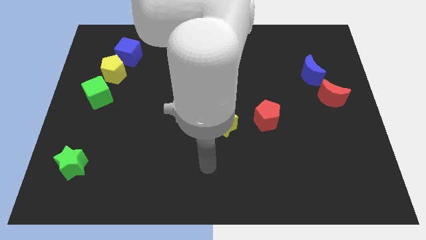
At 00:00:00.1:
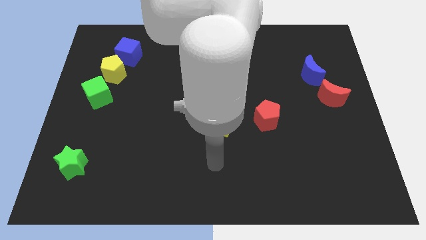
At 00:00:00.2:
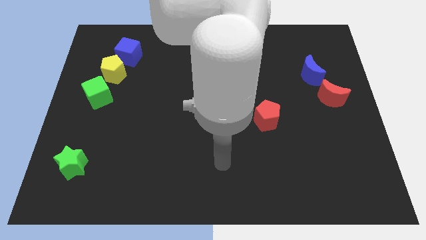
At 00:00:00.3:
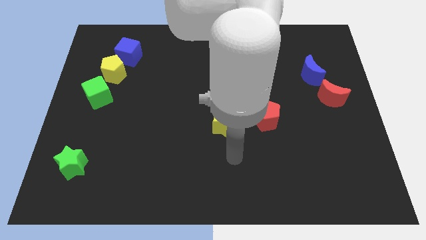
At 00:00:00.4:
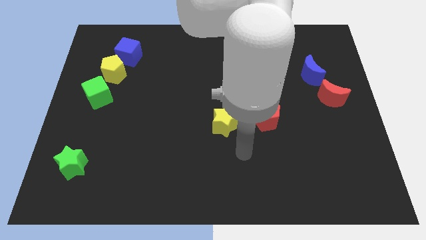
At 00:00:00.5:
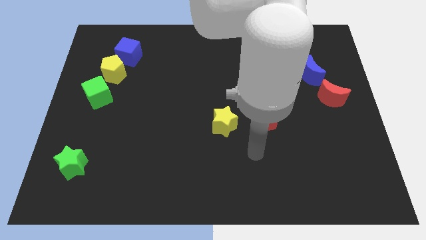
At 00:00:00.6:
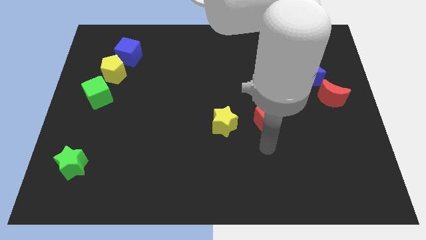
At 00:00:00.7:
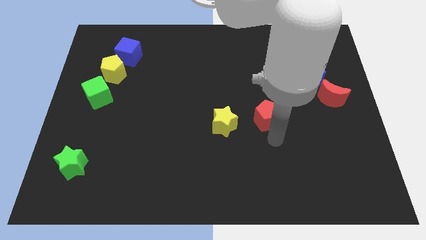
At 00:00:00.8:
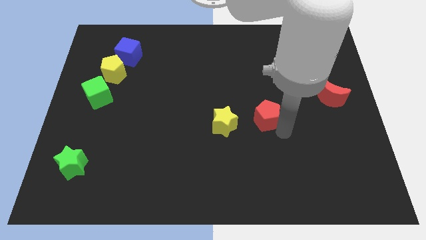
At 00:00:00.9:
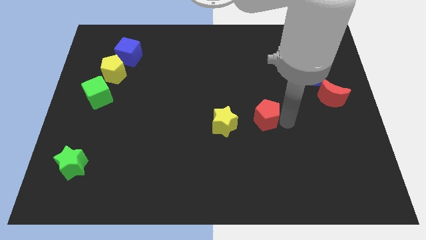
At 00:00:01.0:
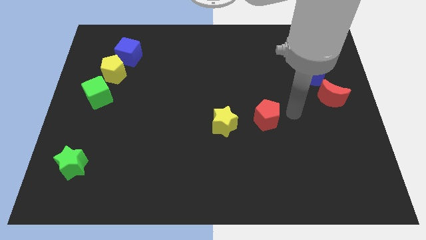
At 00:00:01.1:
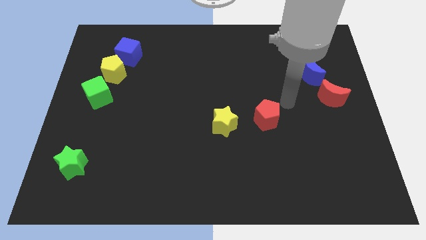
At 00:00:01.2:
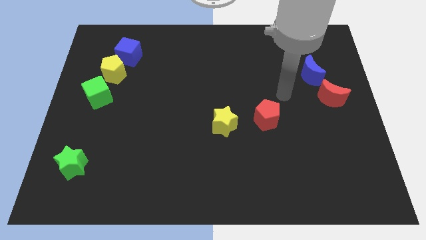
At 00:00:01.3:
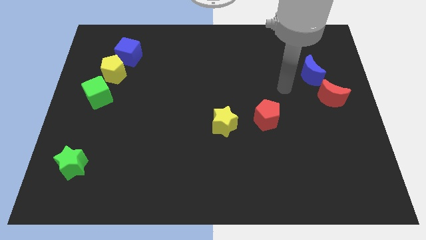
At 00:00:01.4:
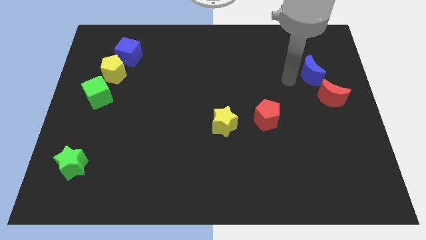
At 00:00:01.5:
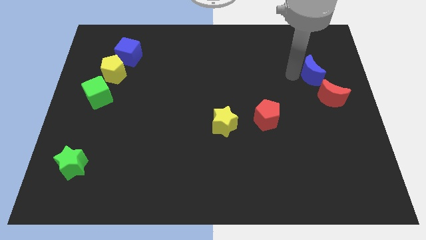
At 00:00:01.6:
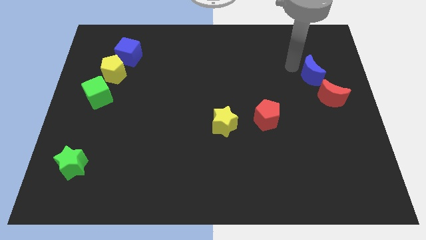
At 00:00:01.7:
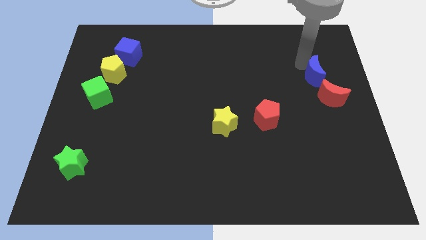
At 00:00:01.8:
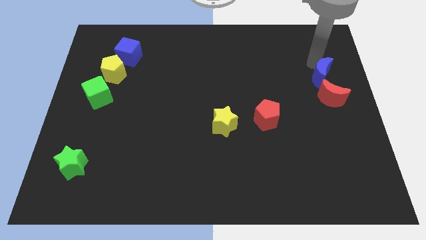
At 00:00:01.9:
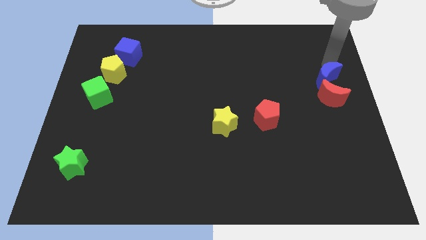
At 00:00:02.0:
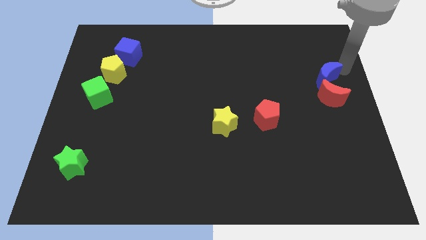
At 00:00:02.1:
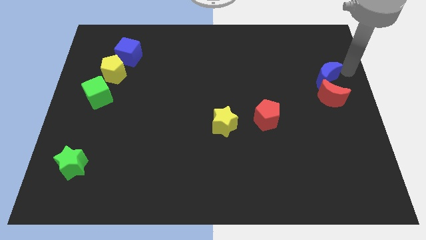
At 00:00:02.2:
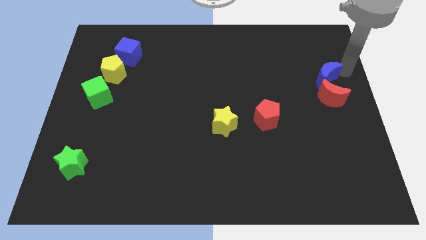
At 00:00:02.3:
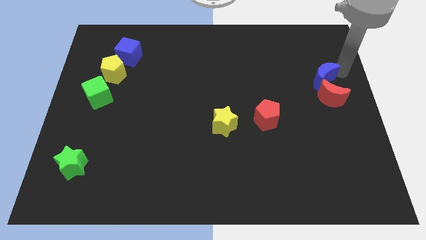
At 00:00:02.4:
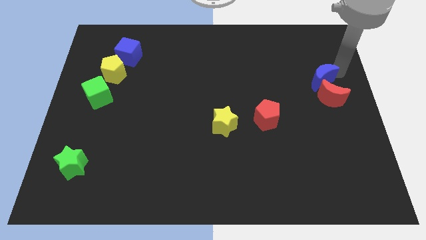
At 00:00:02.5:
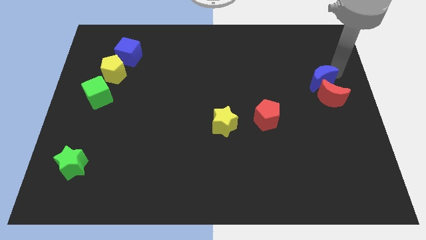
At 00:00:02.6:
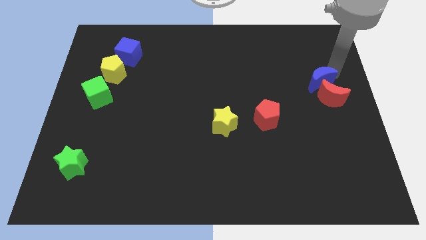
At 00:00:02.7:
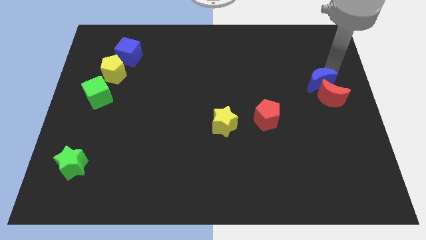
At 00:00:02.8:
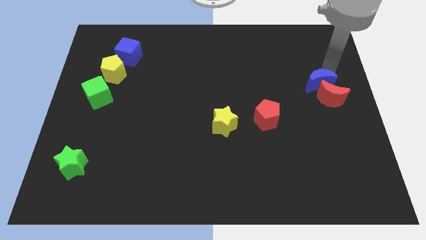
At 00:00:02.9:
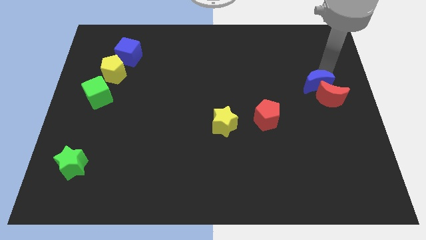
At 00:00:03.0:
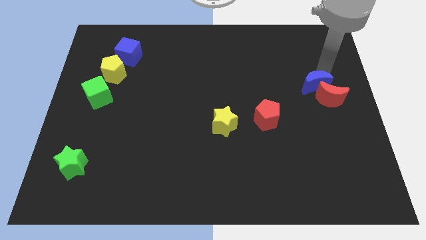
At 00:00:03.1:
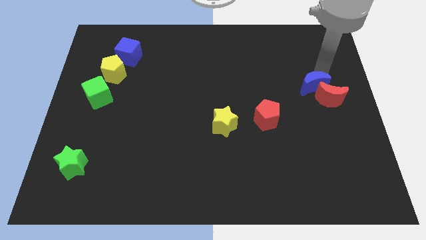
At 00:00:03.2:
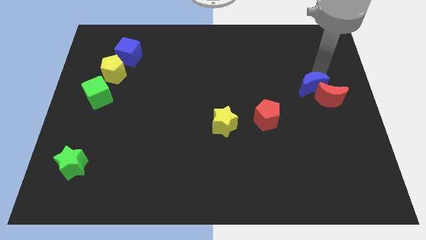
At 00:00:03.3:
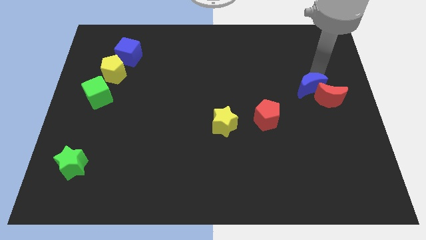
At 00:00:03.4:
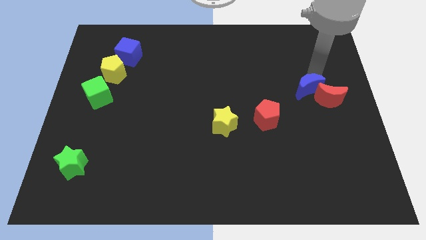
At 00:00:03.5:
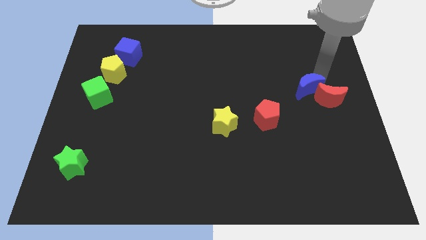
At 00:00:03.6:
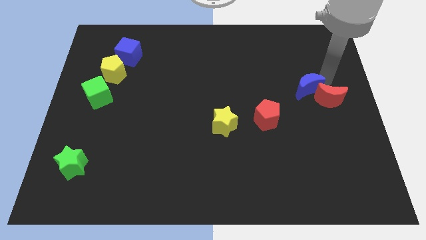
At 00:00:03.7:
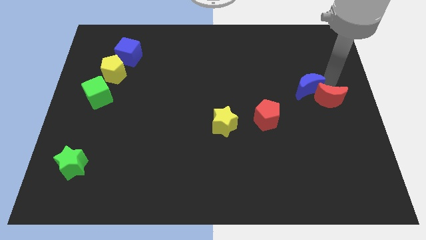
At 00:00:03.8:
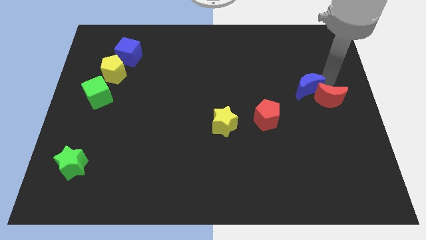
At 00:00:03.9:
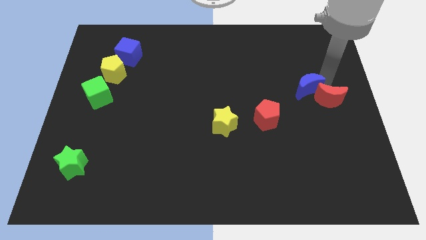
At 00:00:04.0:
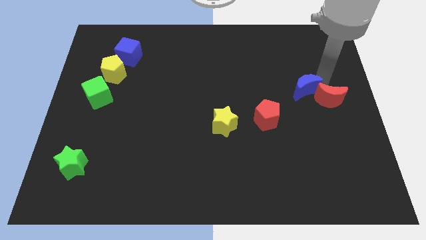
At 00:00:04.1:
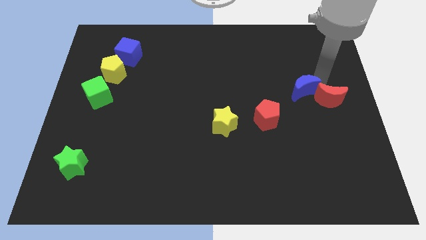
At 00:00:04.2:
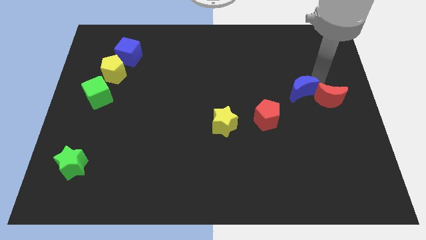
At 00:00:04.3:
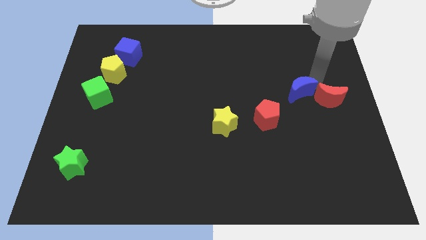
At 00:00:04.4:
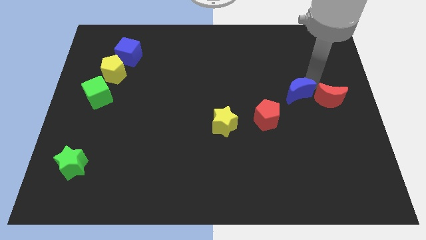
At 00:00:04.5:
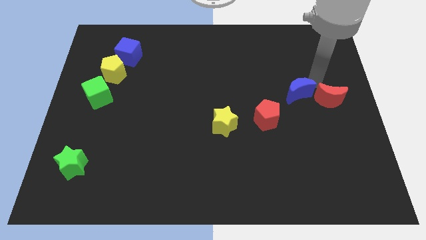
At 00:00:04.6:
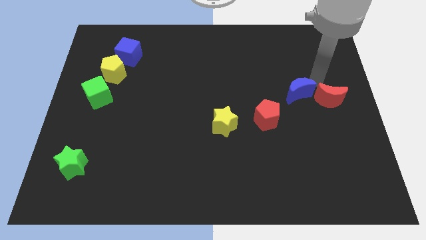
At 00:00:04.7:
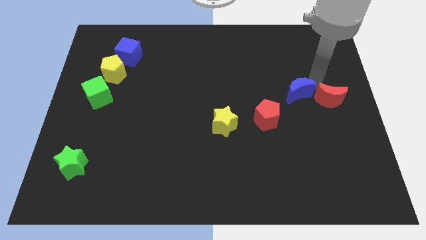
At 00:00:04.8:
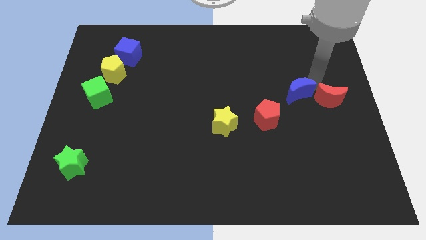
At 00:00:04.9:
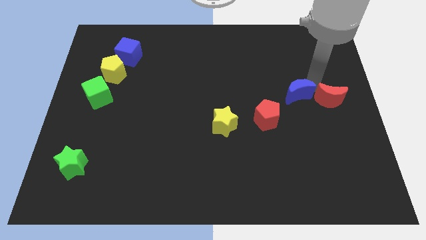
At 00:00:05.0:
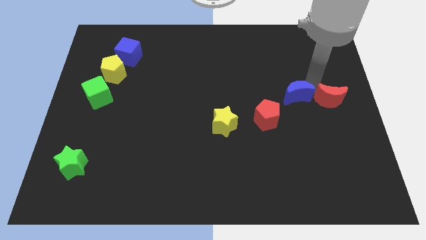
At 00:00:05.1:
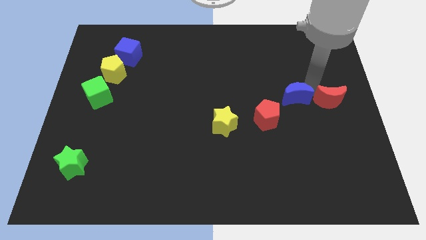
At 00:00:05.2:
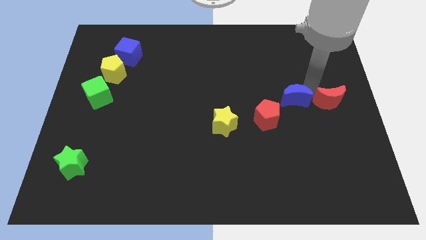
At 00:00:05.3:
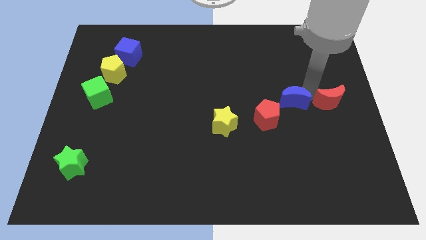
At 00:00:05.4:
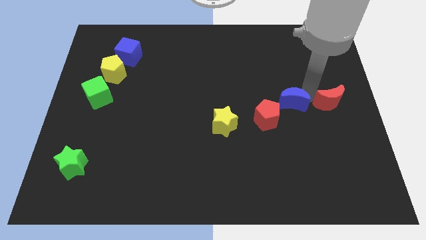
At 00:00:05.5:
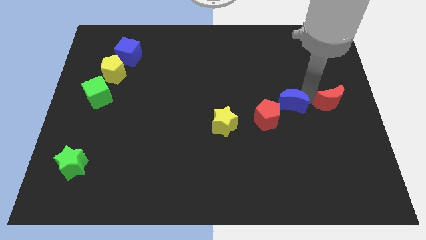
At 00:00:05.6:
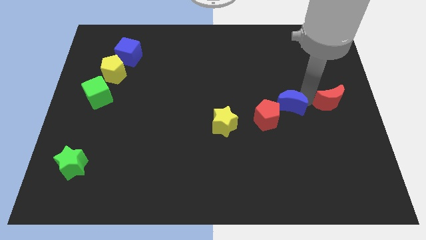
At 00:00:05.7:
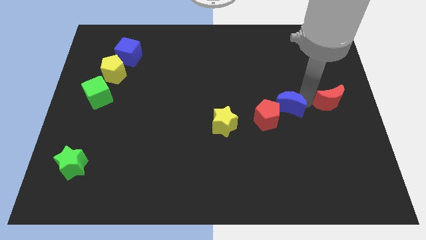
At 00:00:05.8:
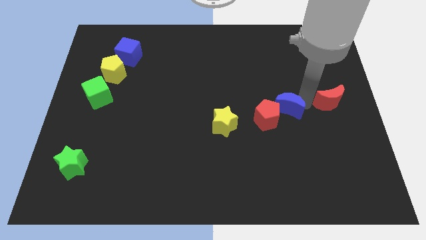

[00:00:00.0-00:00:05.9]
move the blue moon to the red pentagon

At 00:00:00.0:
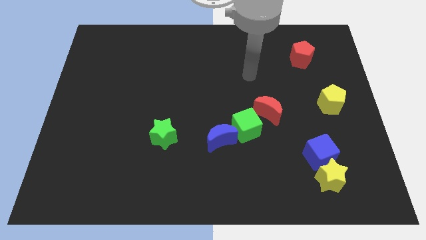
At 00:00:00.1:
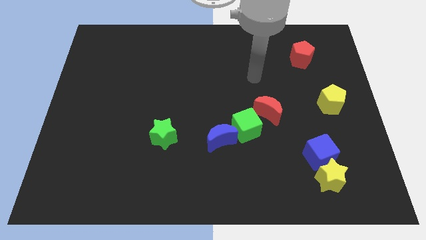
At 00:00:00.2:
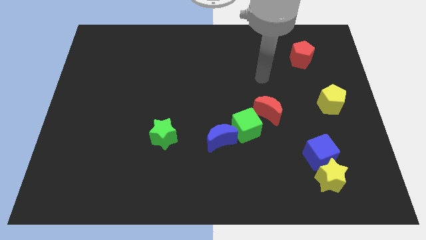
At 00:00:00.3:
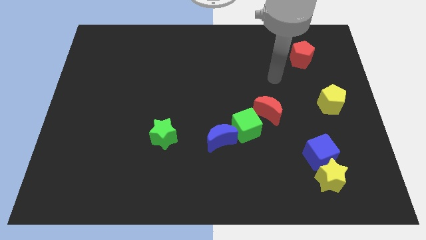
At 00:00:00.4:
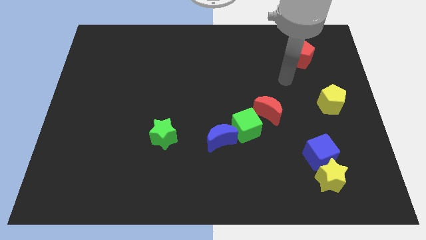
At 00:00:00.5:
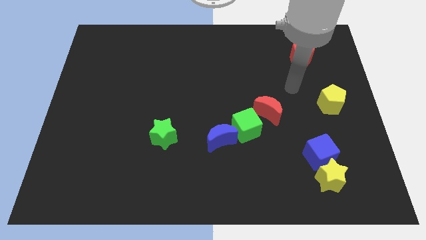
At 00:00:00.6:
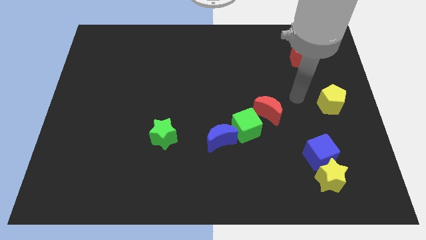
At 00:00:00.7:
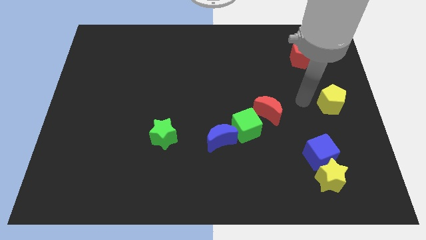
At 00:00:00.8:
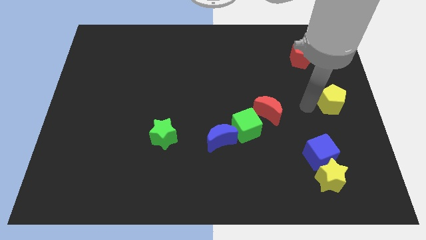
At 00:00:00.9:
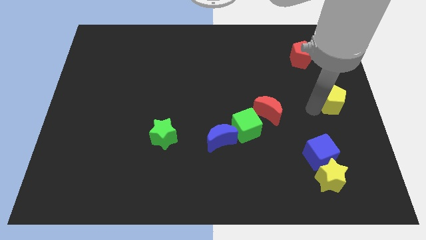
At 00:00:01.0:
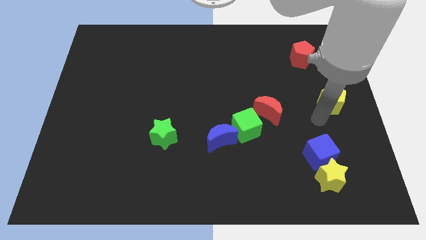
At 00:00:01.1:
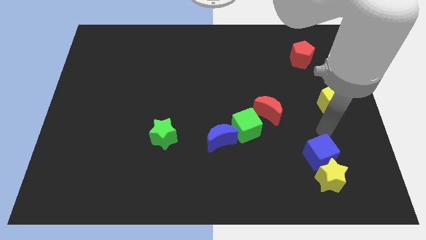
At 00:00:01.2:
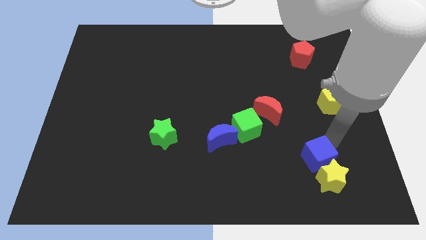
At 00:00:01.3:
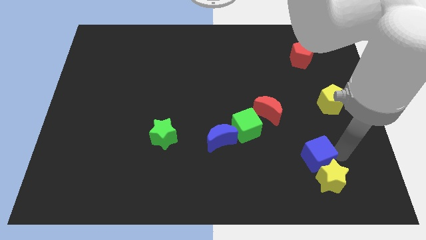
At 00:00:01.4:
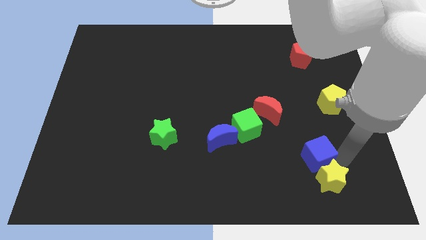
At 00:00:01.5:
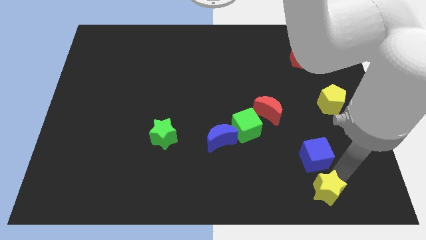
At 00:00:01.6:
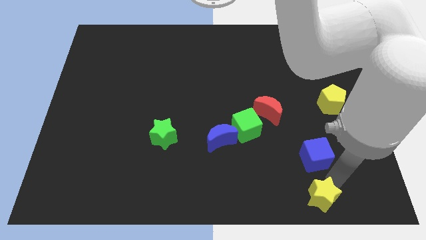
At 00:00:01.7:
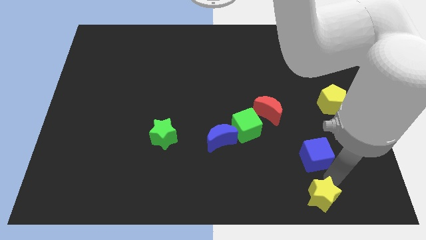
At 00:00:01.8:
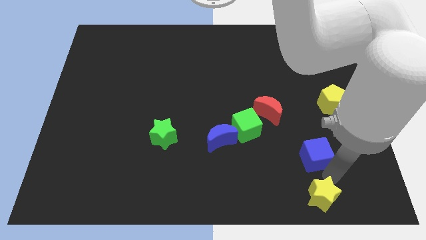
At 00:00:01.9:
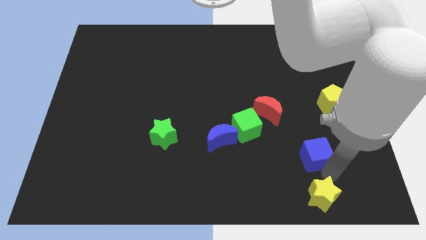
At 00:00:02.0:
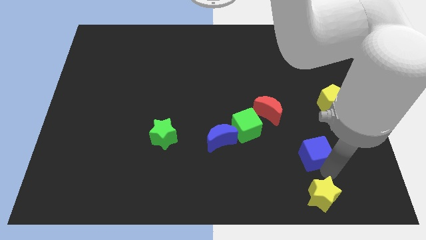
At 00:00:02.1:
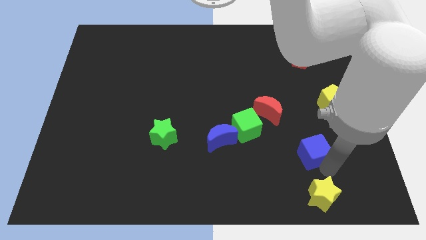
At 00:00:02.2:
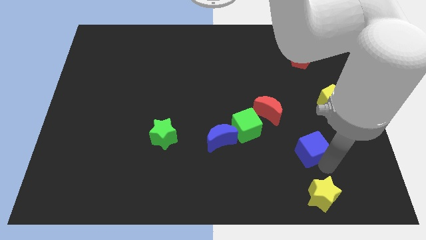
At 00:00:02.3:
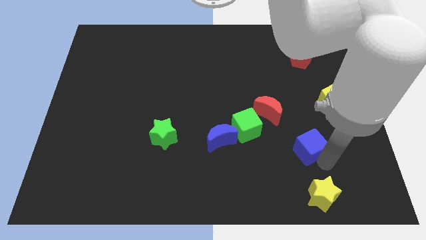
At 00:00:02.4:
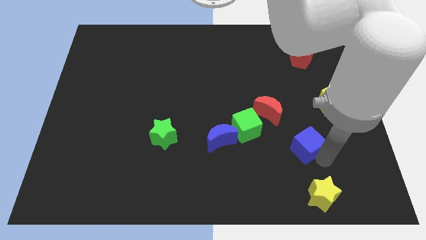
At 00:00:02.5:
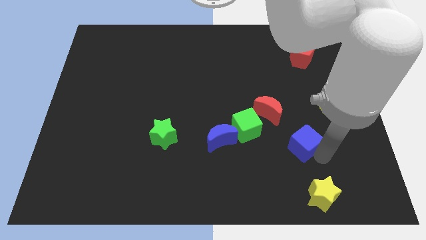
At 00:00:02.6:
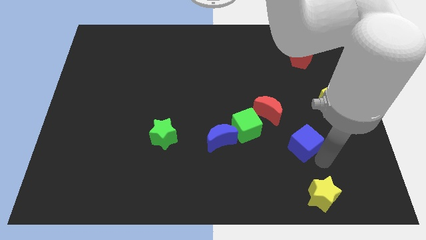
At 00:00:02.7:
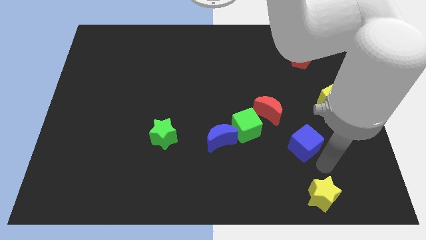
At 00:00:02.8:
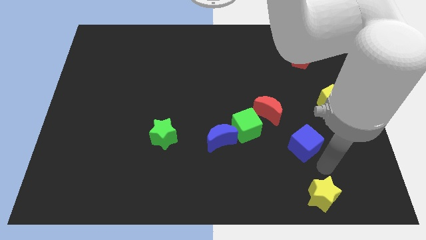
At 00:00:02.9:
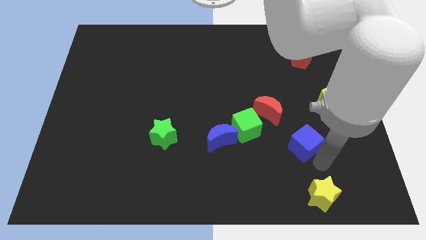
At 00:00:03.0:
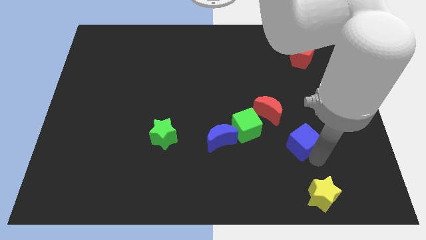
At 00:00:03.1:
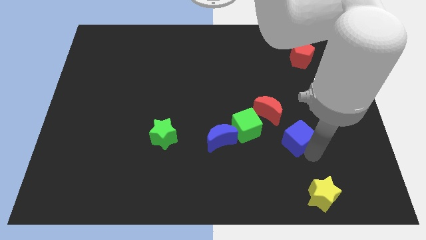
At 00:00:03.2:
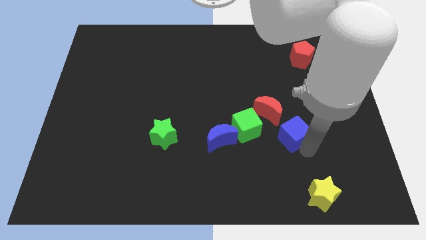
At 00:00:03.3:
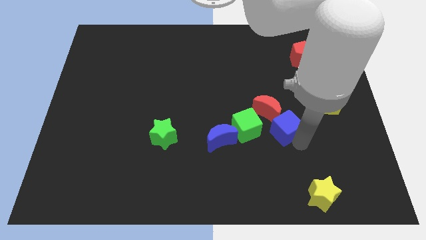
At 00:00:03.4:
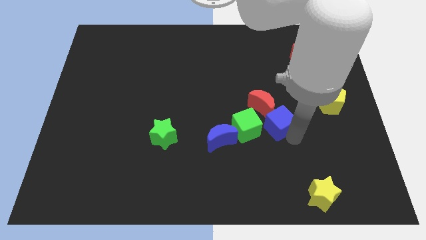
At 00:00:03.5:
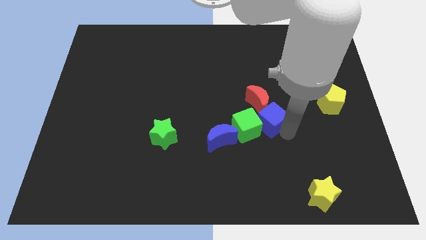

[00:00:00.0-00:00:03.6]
push the blue cube next to the red moon
